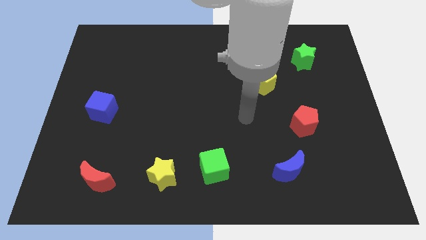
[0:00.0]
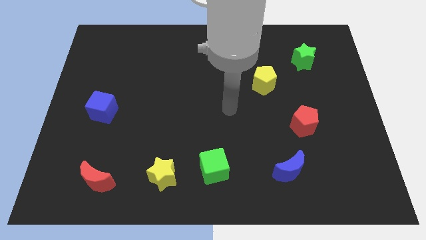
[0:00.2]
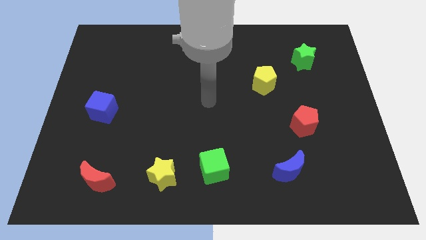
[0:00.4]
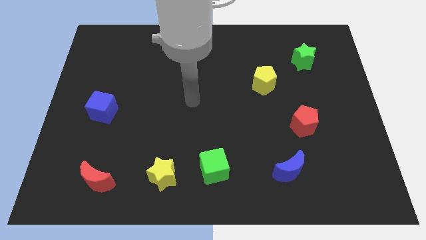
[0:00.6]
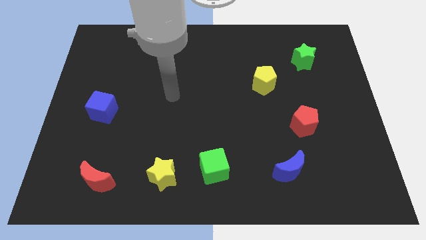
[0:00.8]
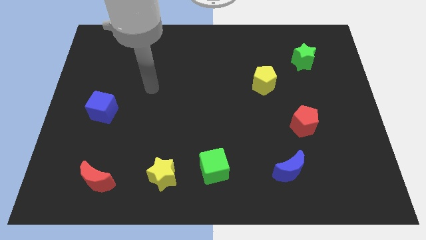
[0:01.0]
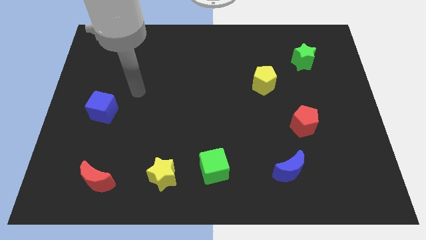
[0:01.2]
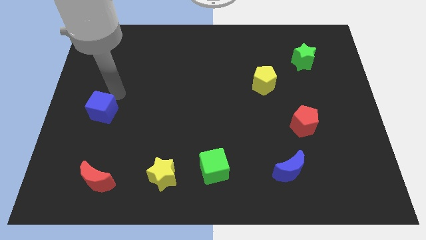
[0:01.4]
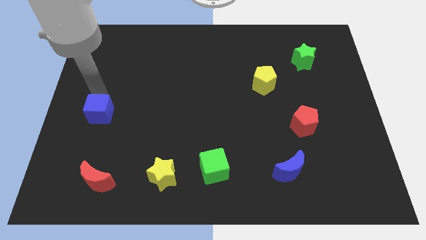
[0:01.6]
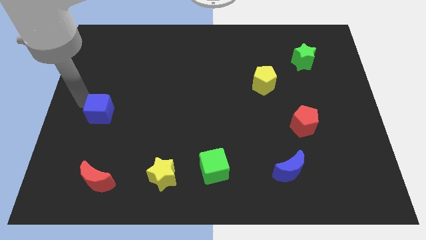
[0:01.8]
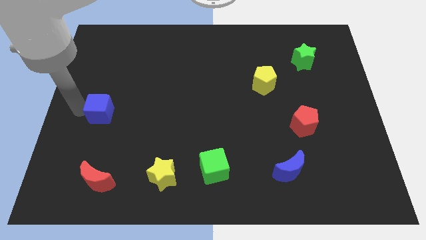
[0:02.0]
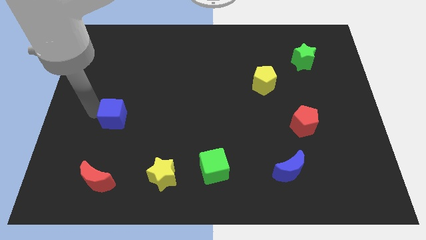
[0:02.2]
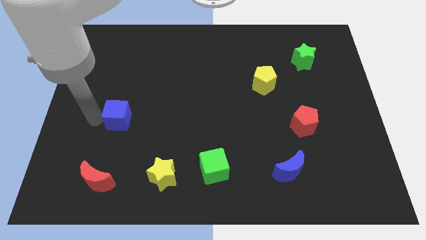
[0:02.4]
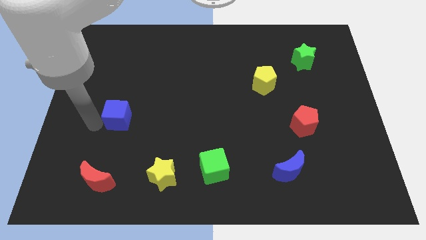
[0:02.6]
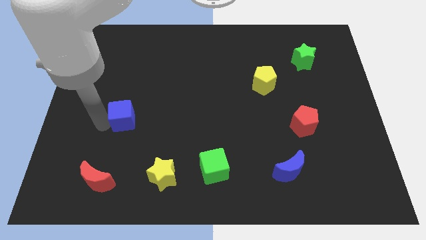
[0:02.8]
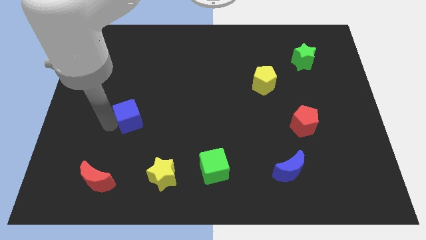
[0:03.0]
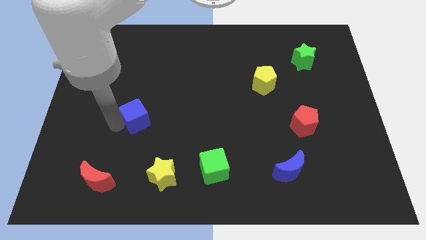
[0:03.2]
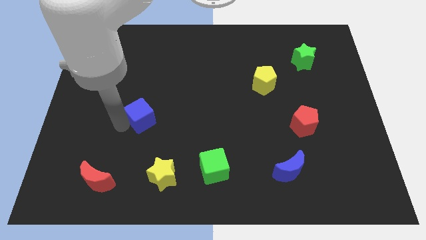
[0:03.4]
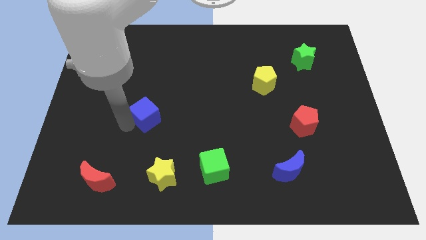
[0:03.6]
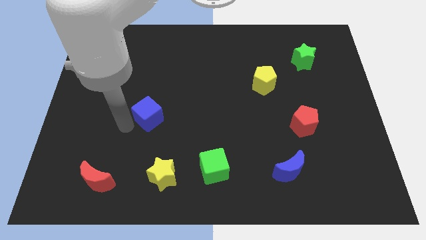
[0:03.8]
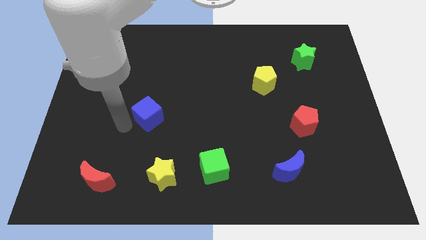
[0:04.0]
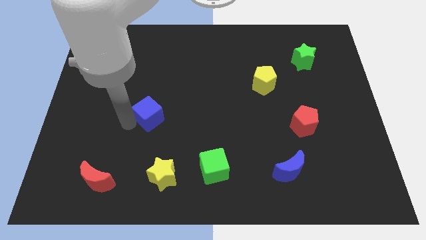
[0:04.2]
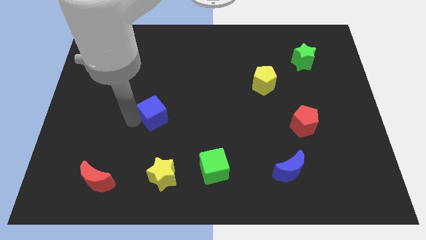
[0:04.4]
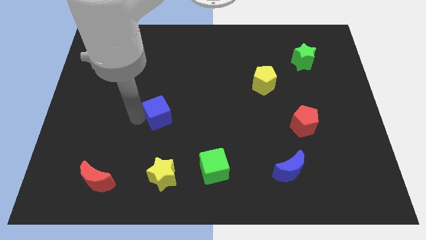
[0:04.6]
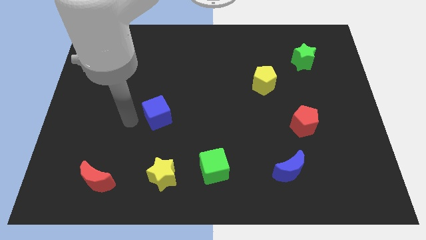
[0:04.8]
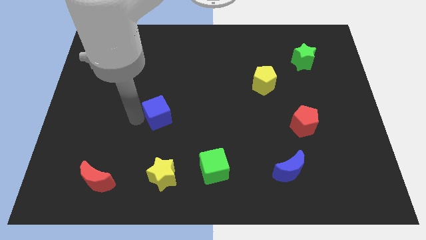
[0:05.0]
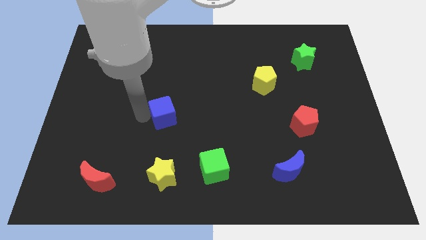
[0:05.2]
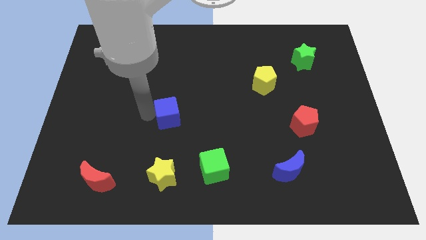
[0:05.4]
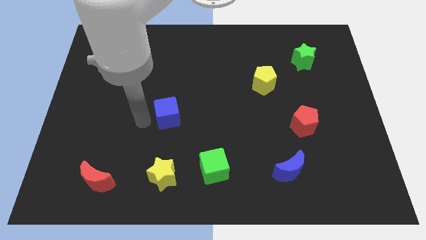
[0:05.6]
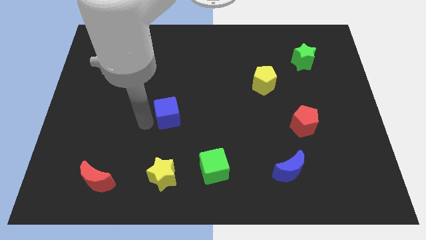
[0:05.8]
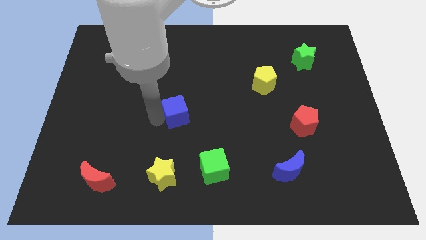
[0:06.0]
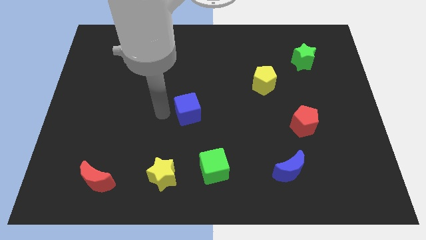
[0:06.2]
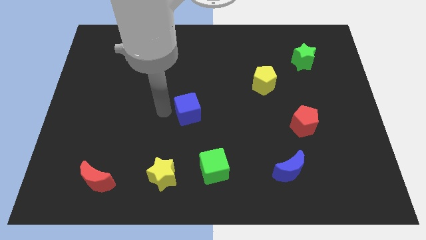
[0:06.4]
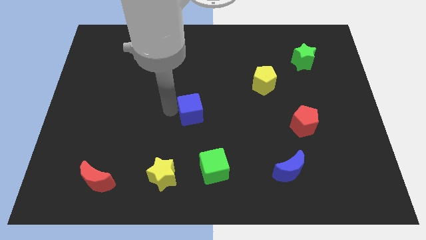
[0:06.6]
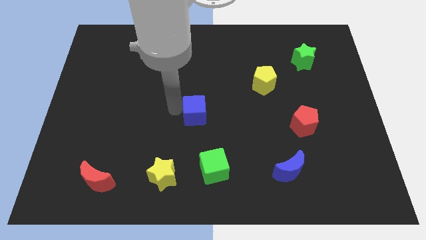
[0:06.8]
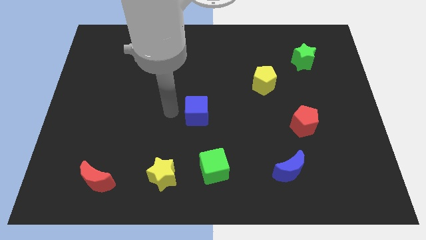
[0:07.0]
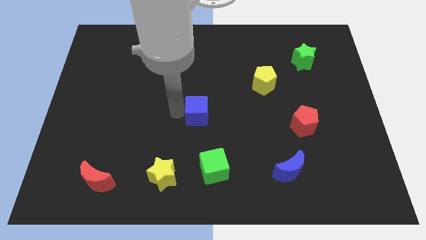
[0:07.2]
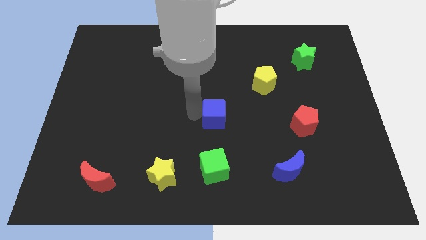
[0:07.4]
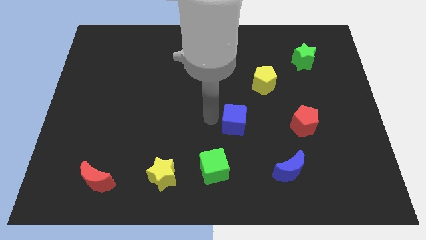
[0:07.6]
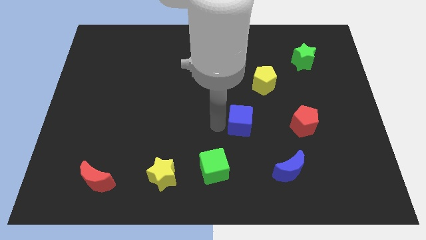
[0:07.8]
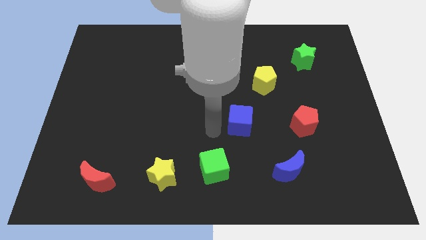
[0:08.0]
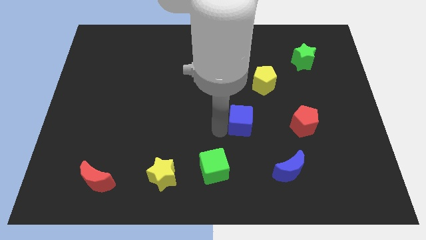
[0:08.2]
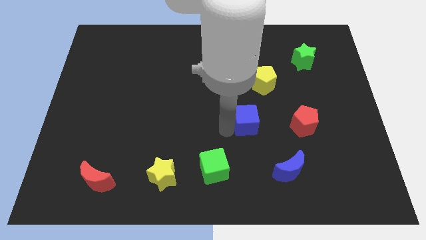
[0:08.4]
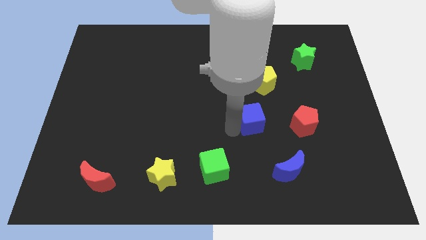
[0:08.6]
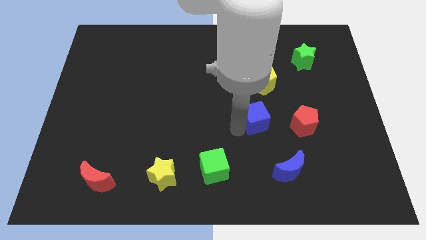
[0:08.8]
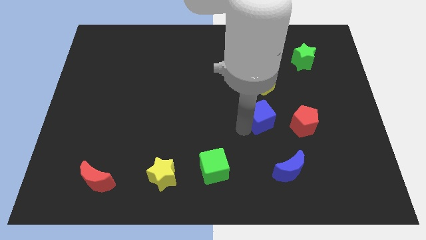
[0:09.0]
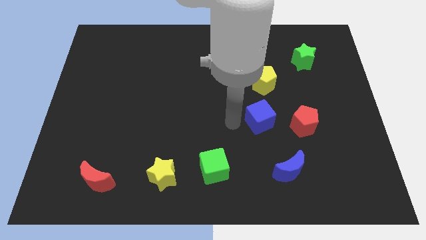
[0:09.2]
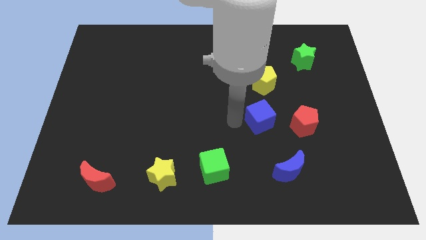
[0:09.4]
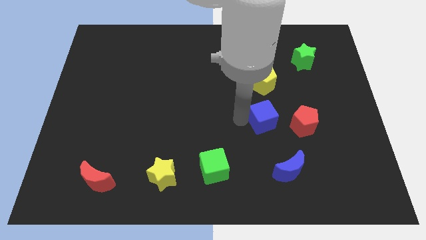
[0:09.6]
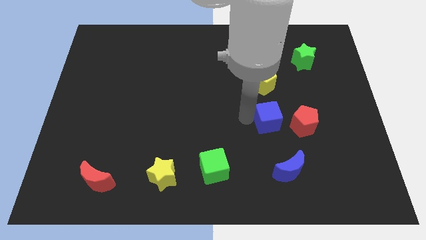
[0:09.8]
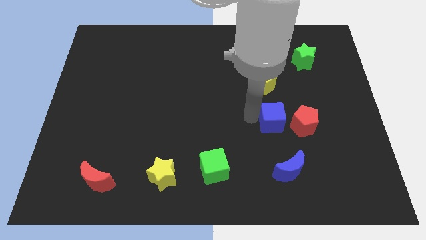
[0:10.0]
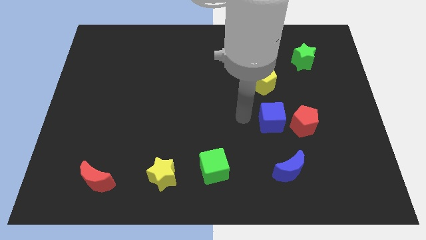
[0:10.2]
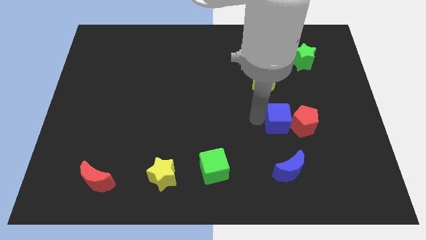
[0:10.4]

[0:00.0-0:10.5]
slide the blue cube close to the red pentagon
